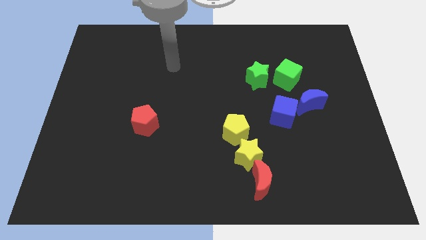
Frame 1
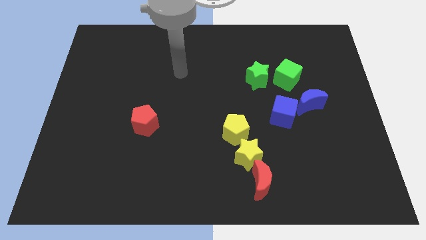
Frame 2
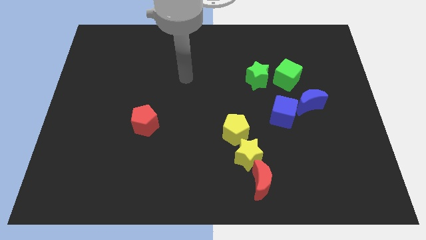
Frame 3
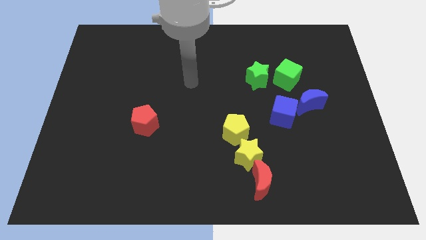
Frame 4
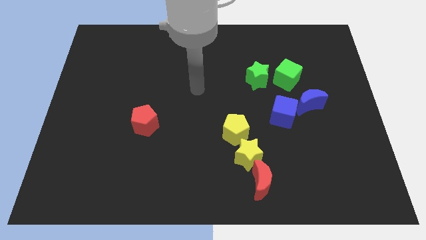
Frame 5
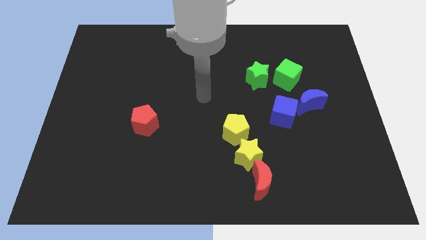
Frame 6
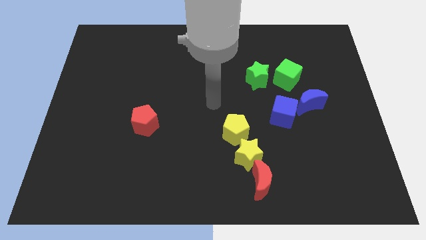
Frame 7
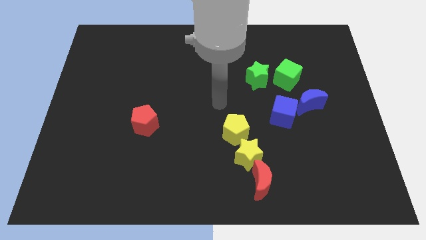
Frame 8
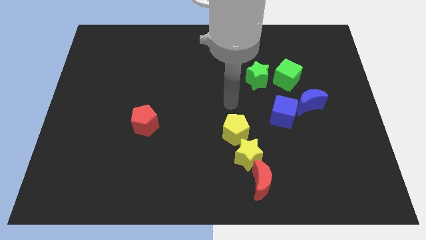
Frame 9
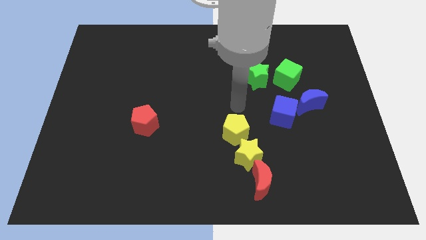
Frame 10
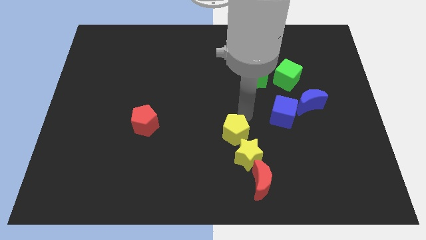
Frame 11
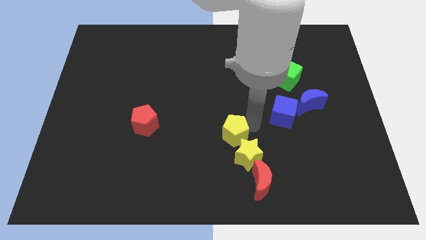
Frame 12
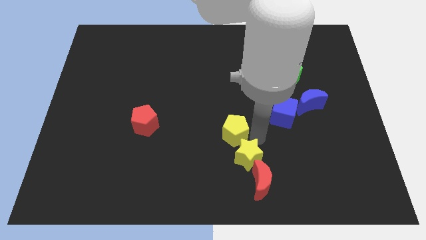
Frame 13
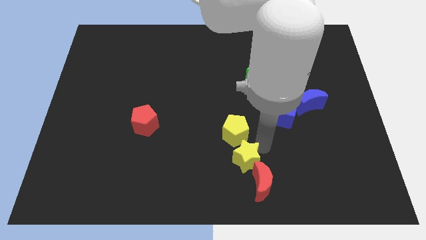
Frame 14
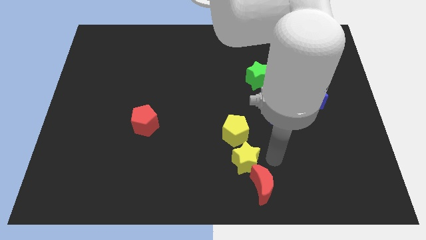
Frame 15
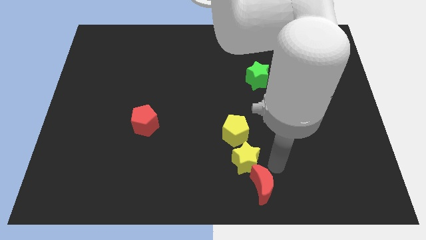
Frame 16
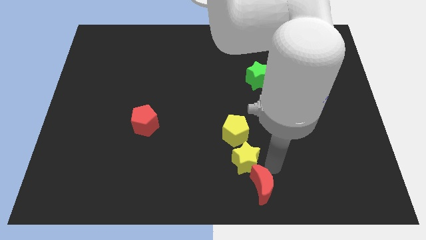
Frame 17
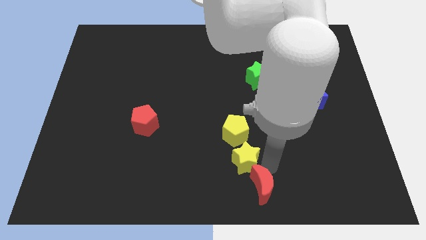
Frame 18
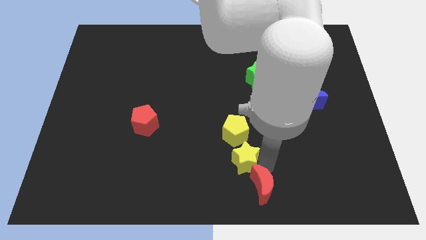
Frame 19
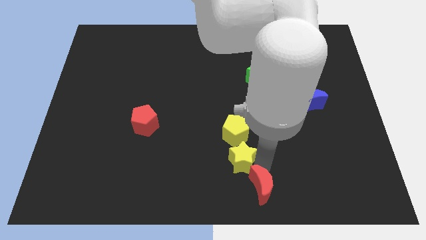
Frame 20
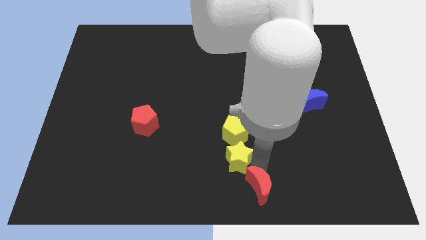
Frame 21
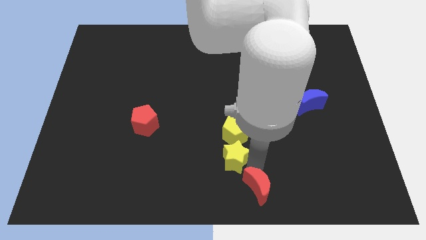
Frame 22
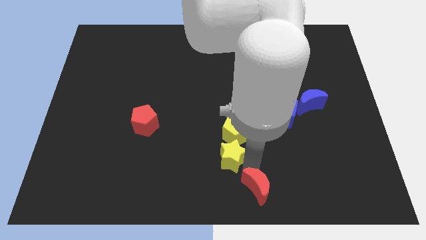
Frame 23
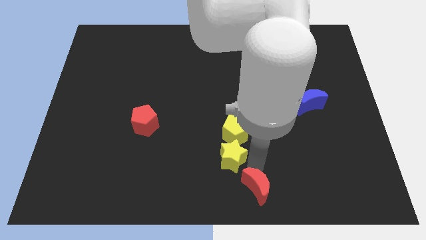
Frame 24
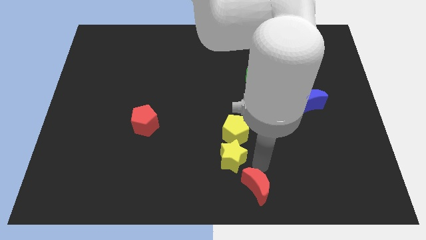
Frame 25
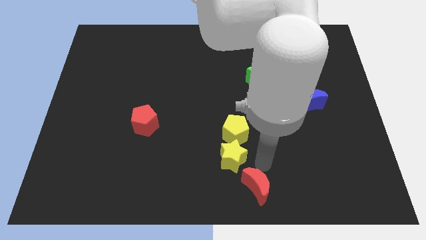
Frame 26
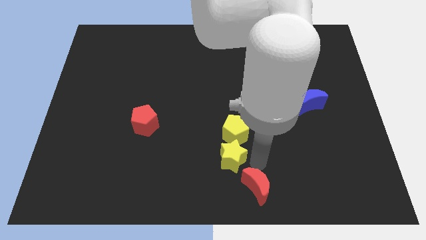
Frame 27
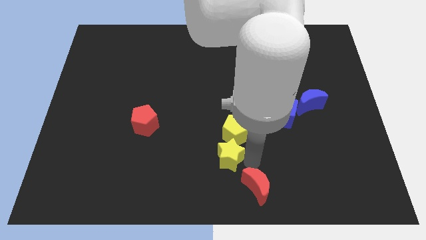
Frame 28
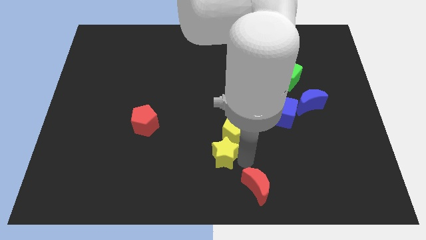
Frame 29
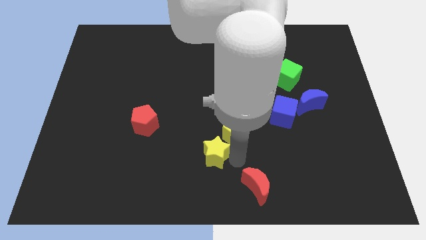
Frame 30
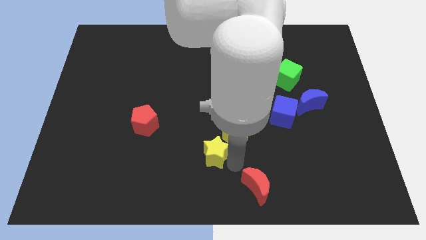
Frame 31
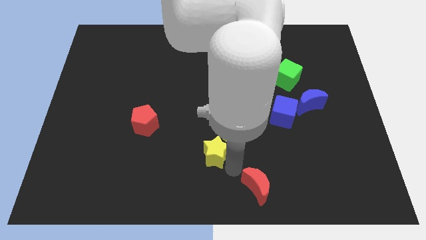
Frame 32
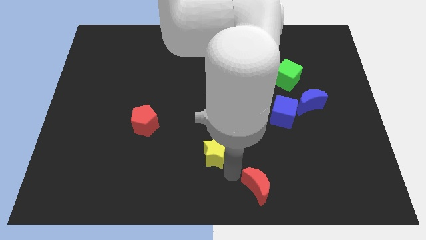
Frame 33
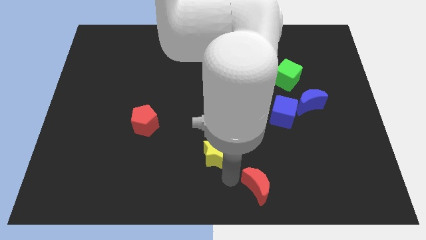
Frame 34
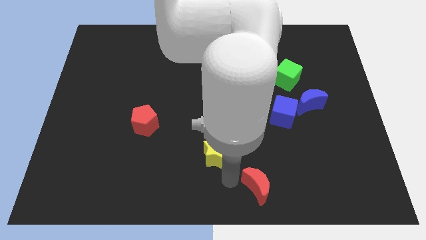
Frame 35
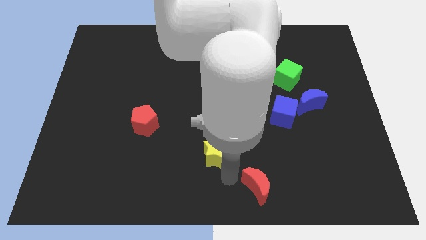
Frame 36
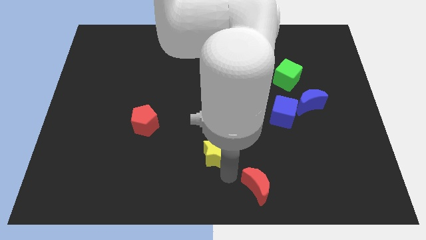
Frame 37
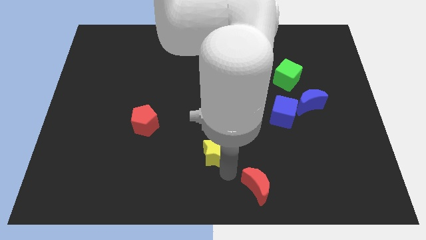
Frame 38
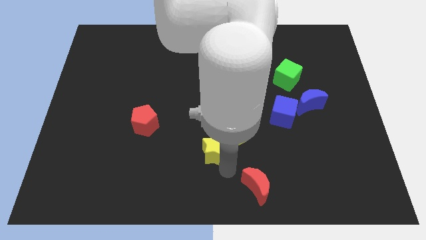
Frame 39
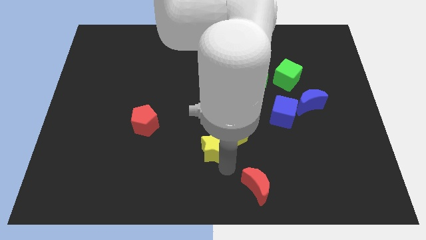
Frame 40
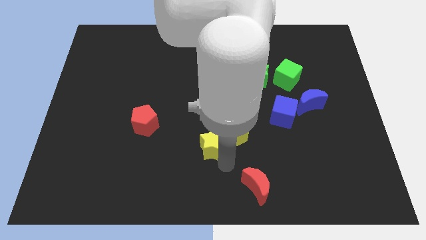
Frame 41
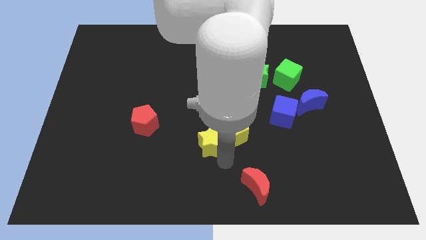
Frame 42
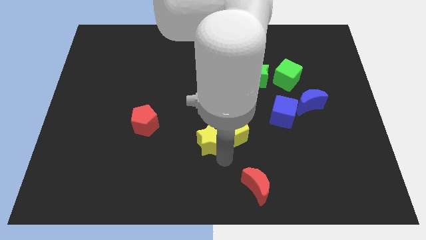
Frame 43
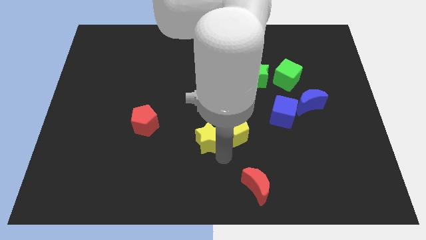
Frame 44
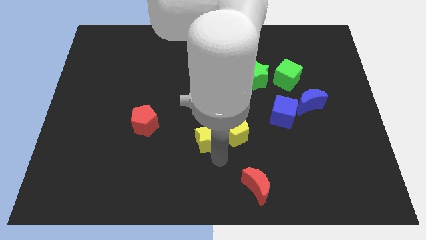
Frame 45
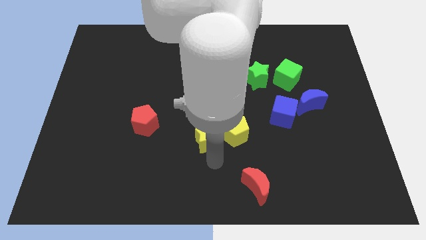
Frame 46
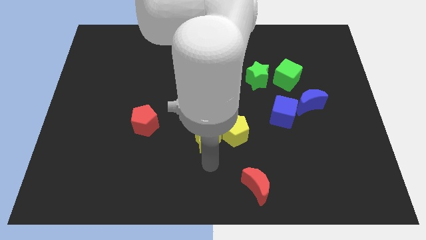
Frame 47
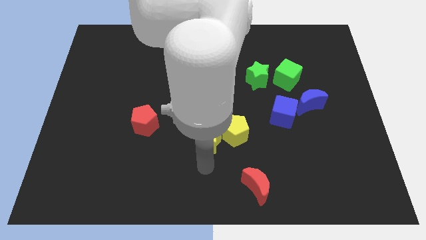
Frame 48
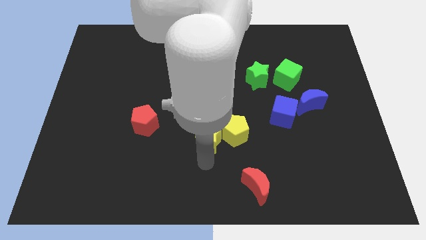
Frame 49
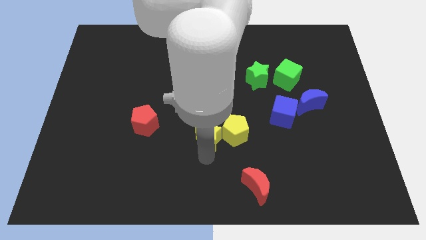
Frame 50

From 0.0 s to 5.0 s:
put the yellow star to the top left of the yellow pentagon

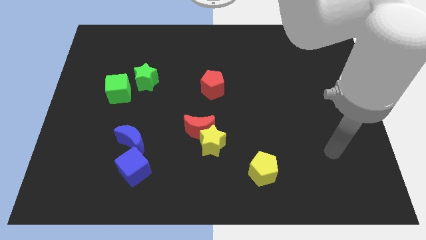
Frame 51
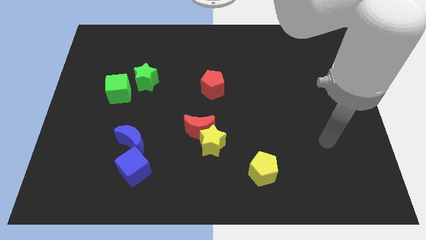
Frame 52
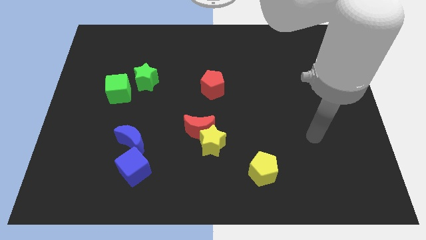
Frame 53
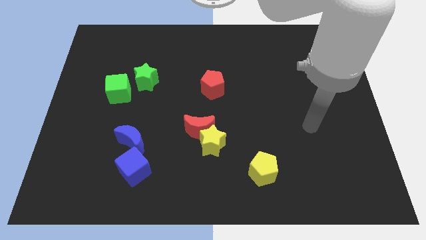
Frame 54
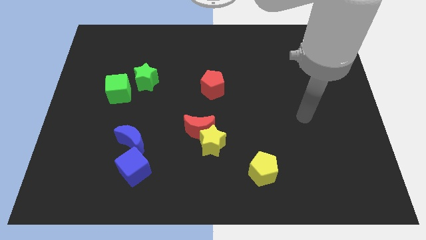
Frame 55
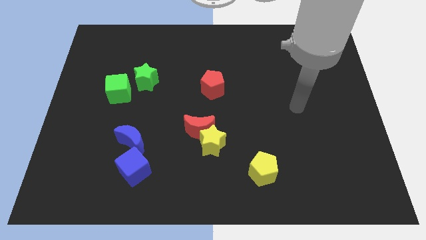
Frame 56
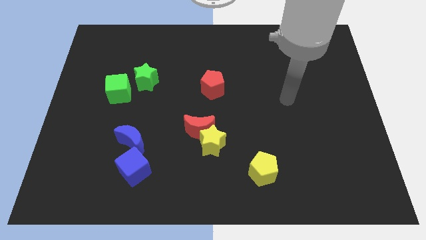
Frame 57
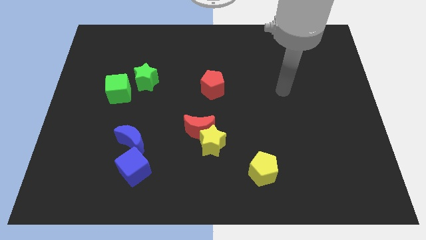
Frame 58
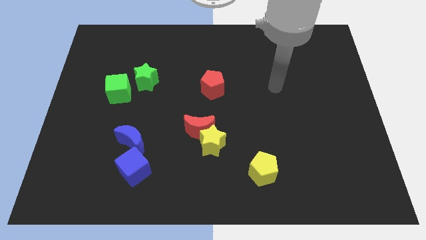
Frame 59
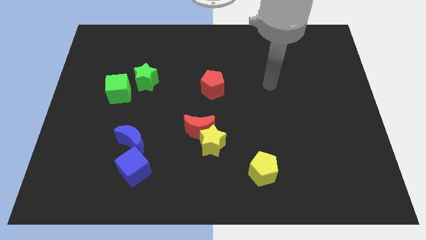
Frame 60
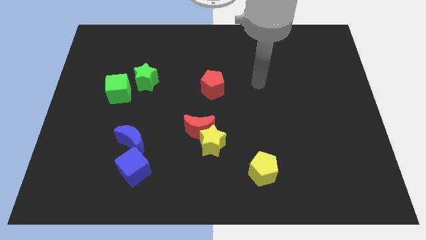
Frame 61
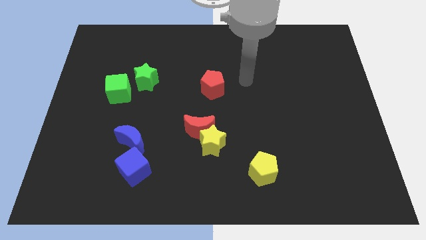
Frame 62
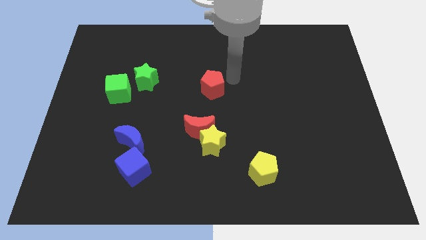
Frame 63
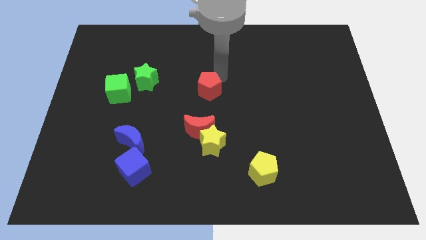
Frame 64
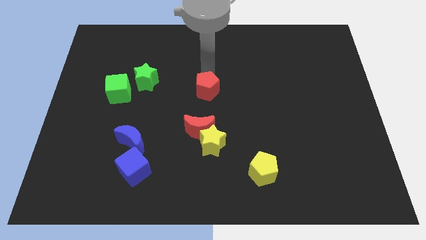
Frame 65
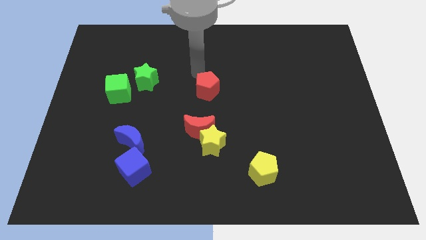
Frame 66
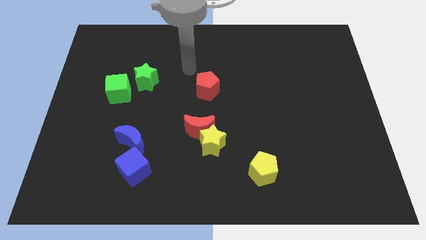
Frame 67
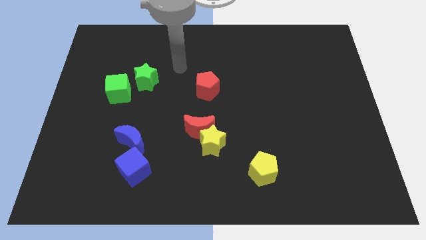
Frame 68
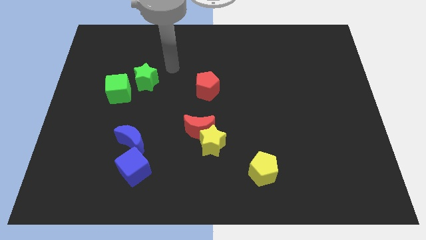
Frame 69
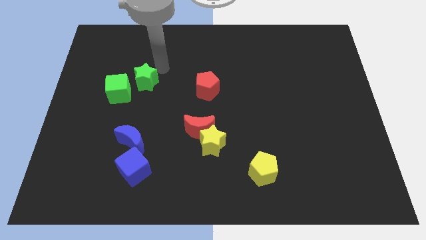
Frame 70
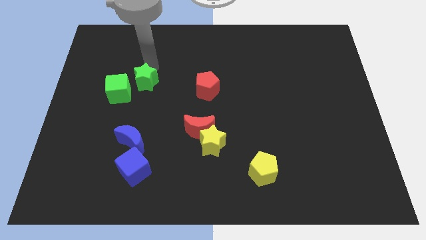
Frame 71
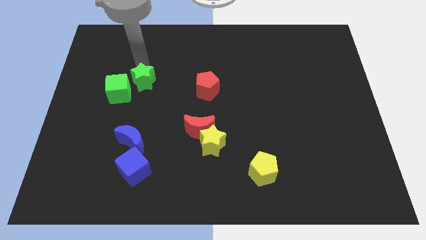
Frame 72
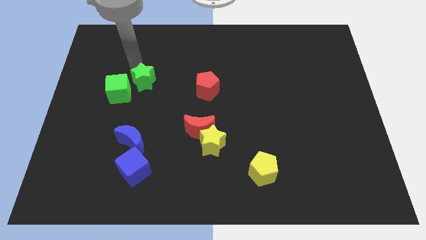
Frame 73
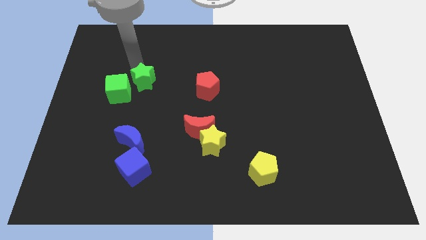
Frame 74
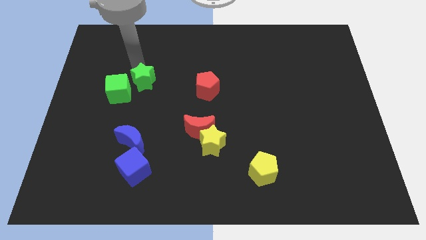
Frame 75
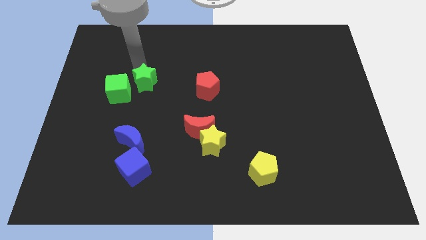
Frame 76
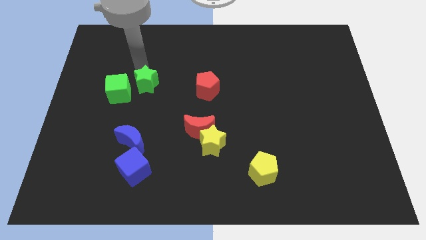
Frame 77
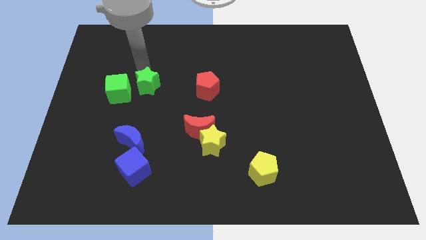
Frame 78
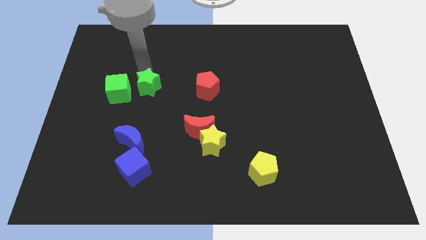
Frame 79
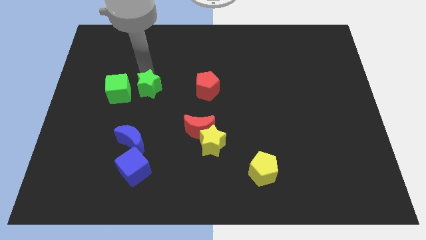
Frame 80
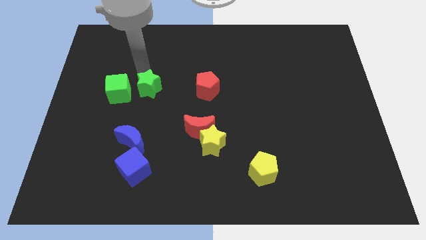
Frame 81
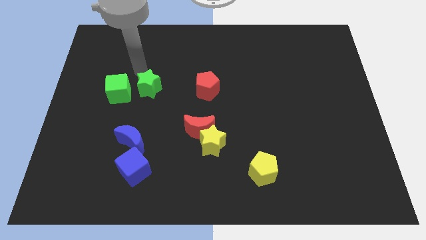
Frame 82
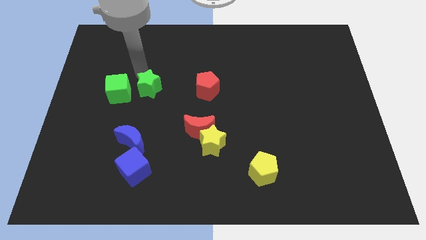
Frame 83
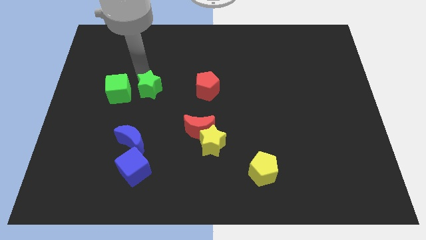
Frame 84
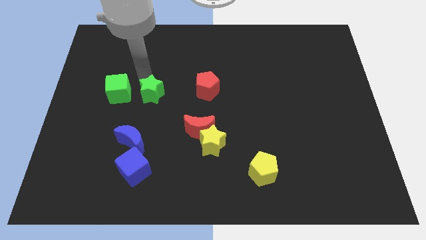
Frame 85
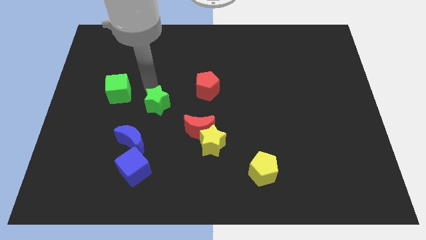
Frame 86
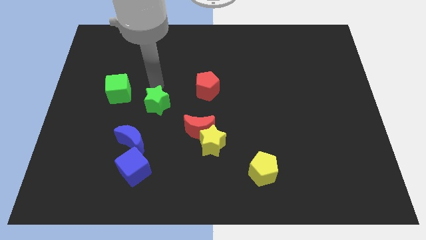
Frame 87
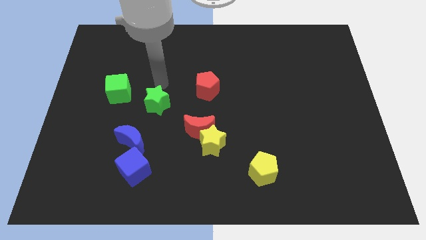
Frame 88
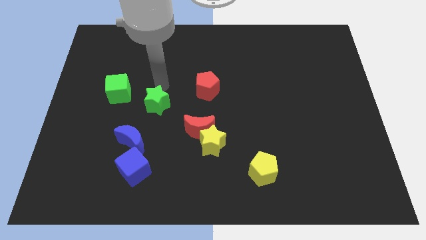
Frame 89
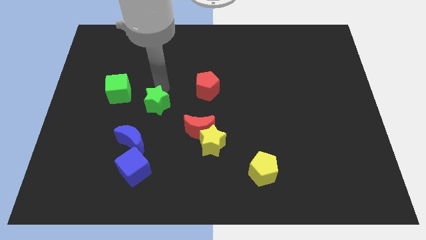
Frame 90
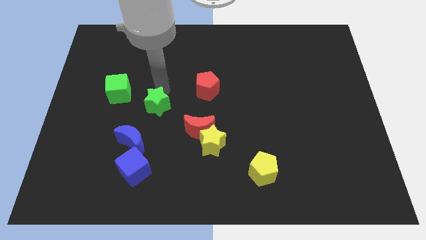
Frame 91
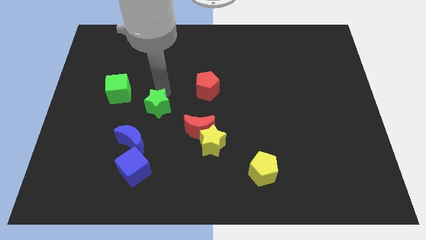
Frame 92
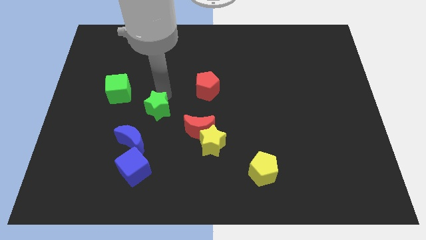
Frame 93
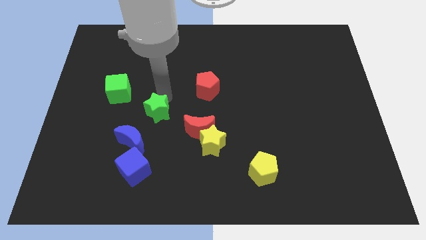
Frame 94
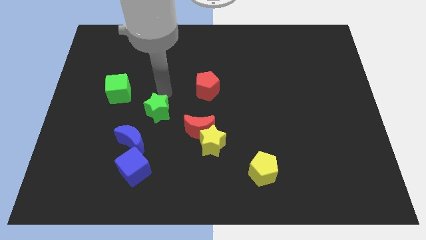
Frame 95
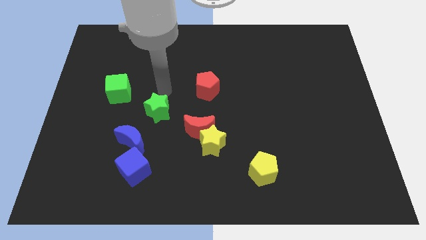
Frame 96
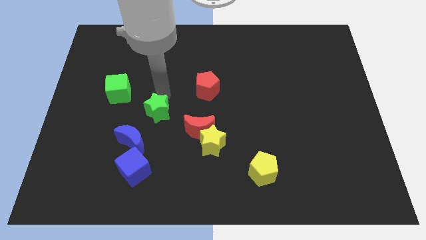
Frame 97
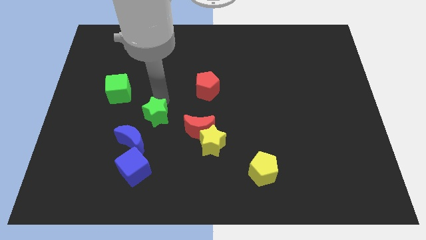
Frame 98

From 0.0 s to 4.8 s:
push the green star just left of the red moon
